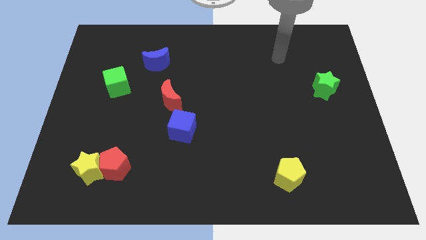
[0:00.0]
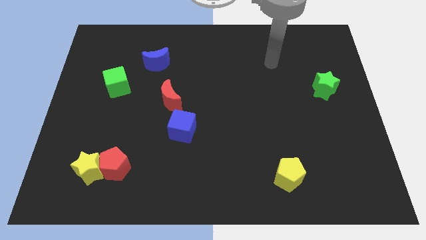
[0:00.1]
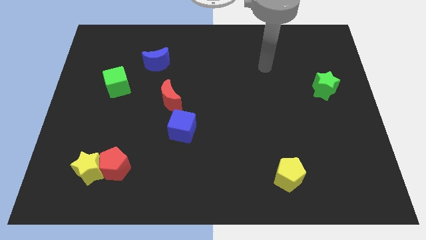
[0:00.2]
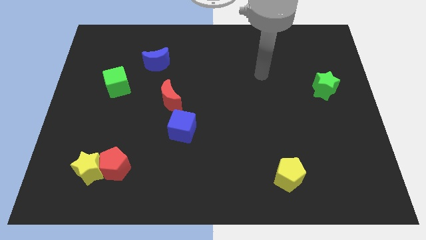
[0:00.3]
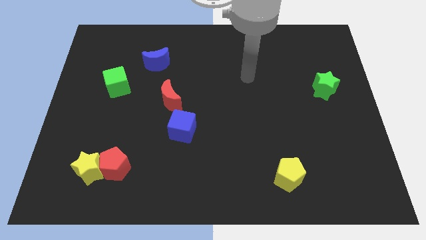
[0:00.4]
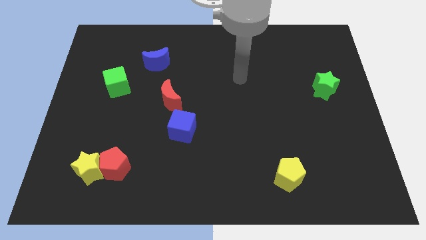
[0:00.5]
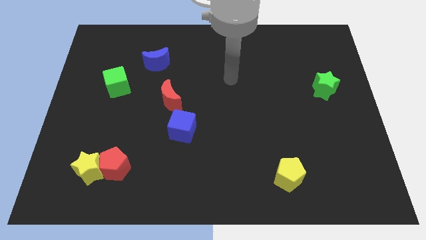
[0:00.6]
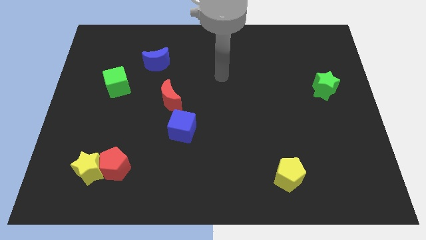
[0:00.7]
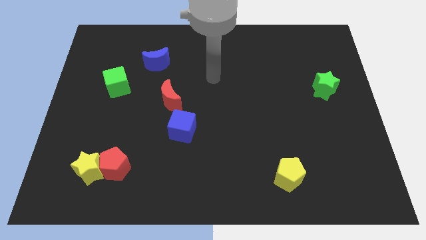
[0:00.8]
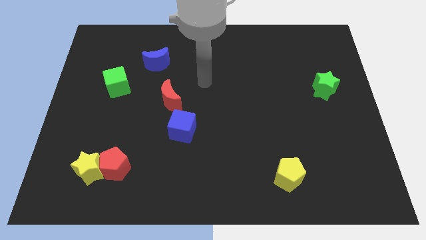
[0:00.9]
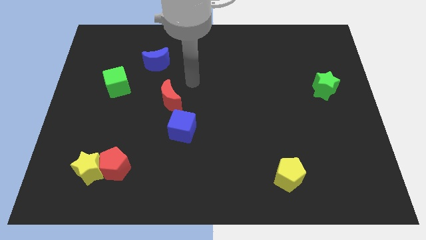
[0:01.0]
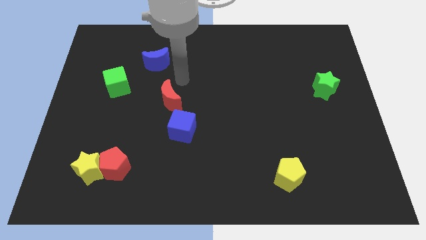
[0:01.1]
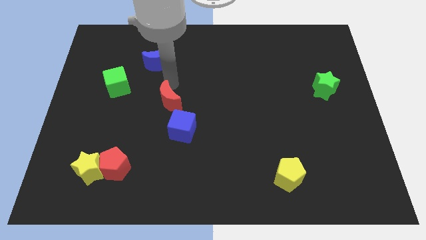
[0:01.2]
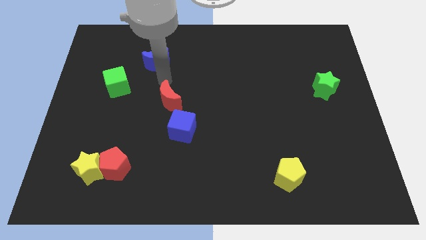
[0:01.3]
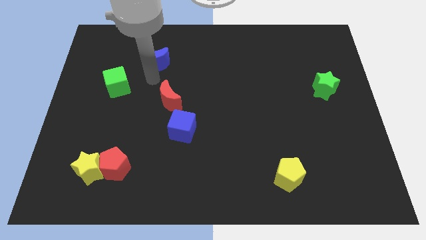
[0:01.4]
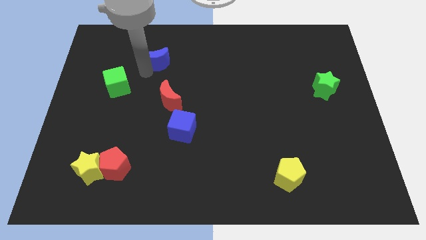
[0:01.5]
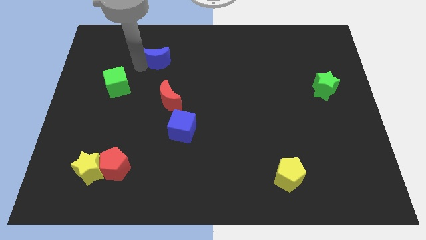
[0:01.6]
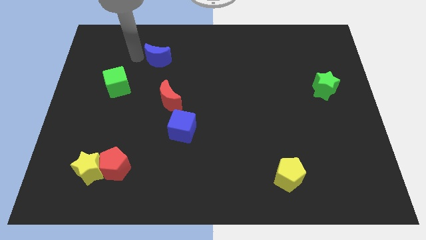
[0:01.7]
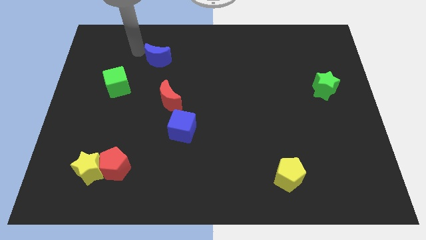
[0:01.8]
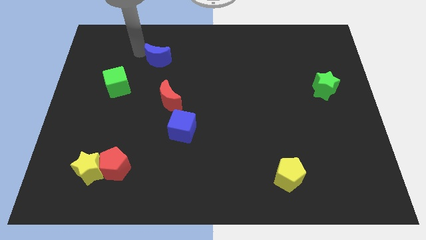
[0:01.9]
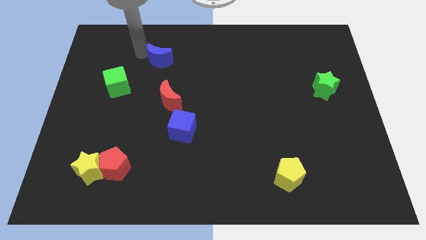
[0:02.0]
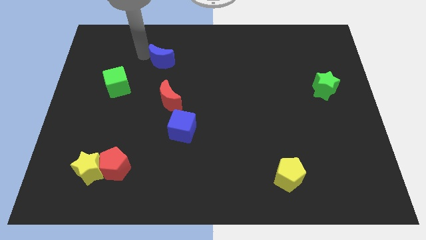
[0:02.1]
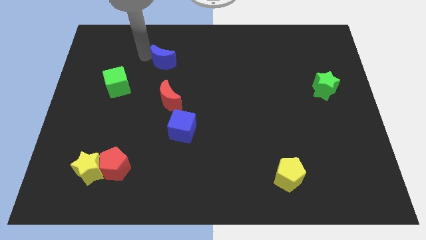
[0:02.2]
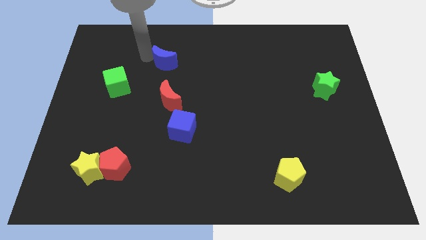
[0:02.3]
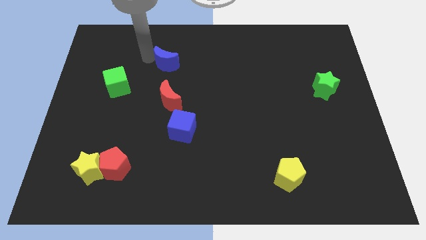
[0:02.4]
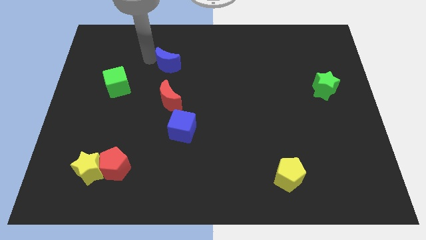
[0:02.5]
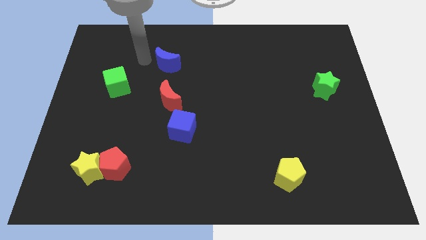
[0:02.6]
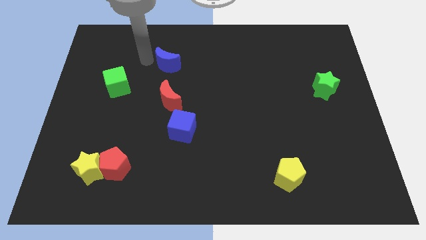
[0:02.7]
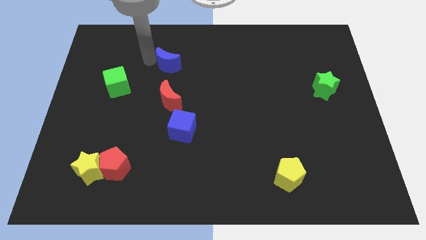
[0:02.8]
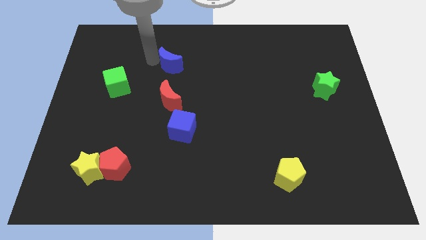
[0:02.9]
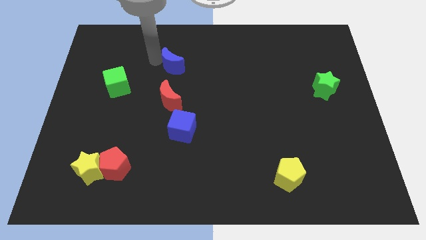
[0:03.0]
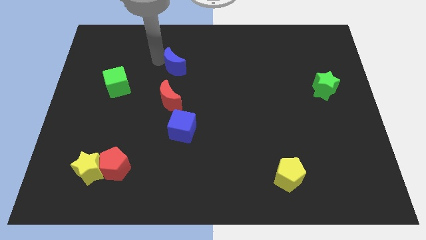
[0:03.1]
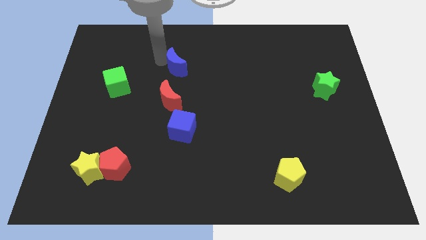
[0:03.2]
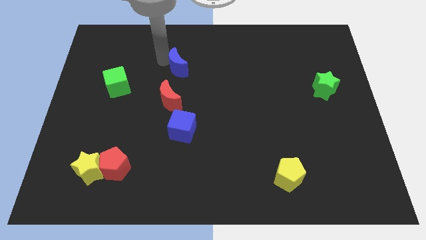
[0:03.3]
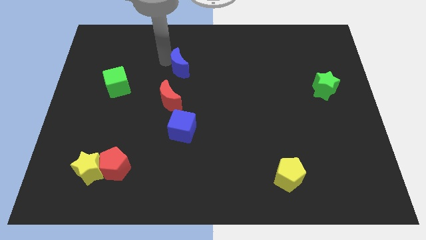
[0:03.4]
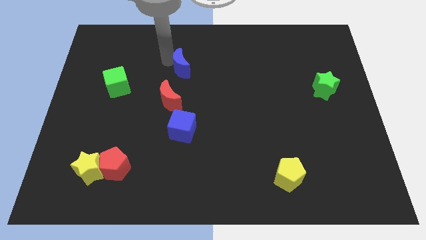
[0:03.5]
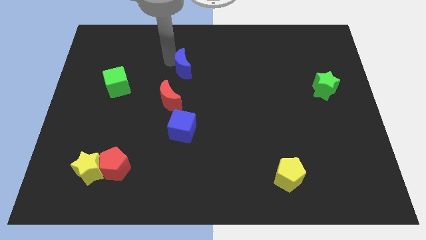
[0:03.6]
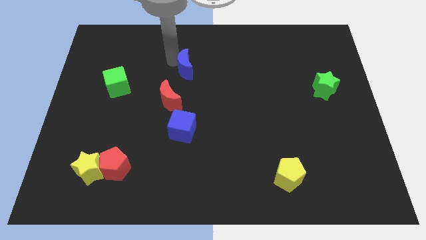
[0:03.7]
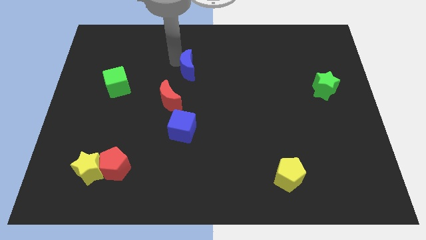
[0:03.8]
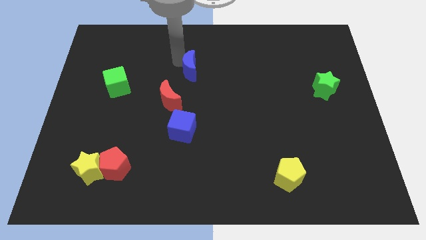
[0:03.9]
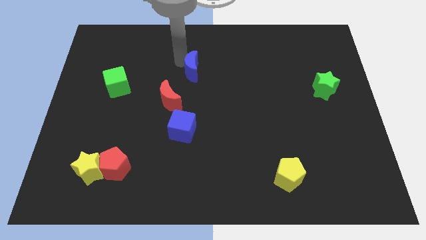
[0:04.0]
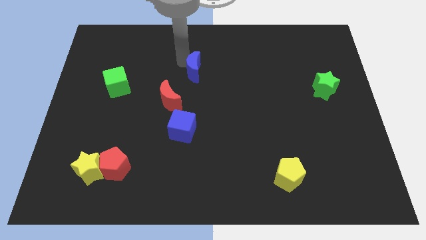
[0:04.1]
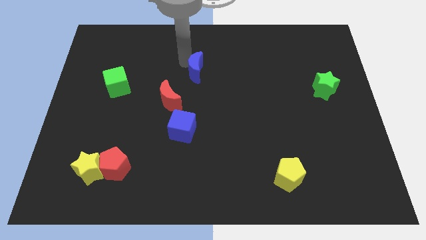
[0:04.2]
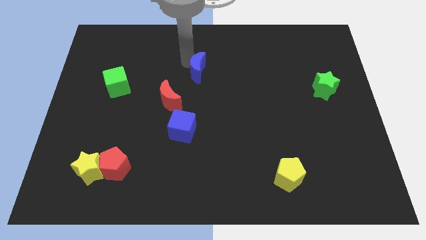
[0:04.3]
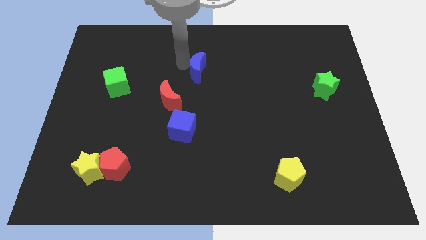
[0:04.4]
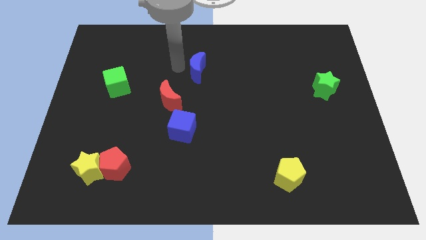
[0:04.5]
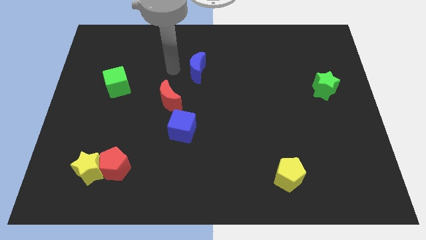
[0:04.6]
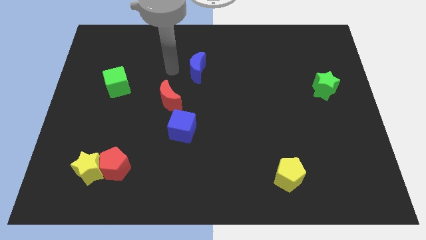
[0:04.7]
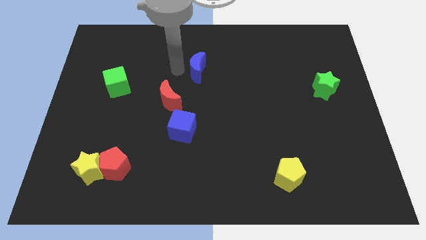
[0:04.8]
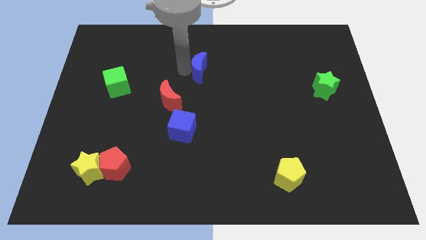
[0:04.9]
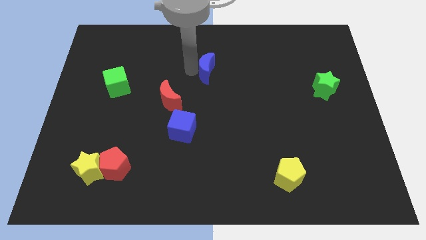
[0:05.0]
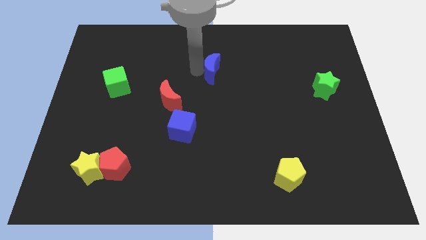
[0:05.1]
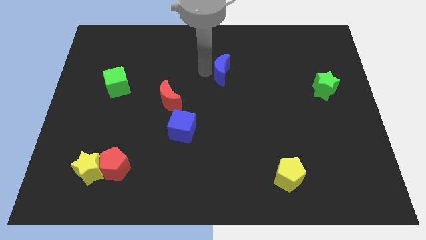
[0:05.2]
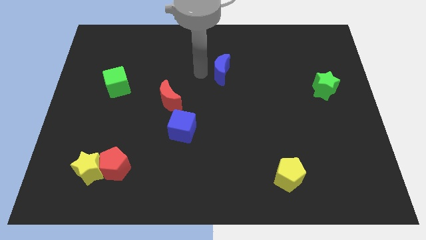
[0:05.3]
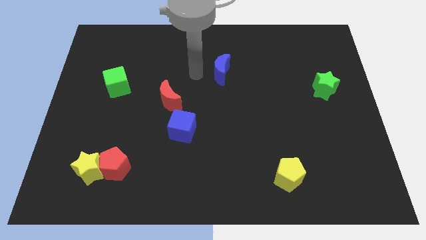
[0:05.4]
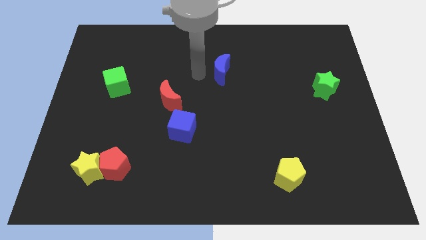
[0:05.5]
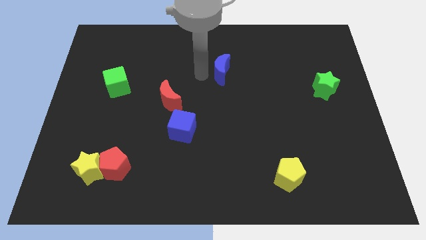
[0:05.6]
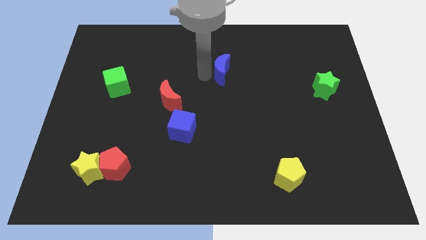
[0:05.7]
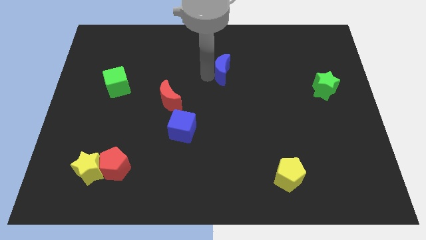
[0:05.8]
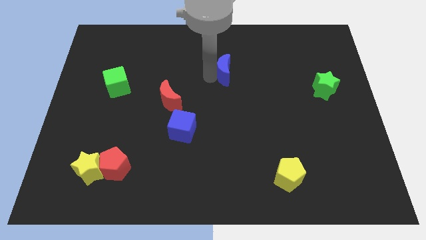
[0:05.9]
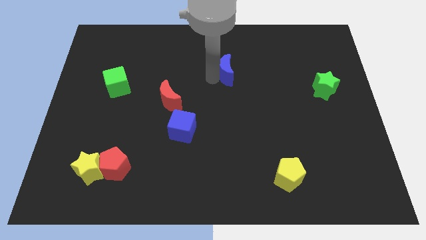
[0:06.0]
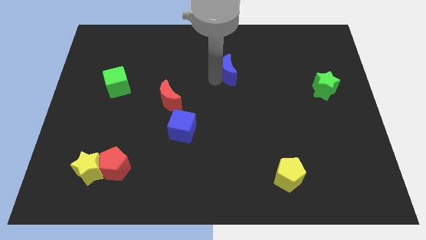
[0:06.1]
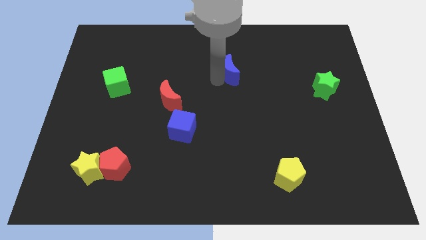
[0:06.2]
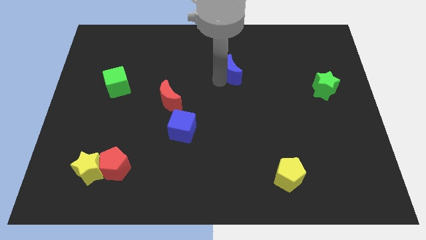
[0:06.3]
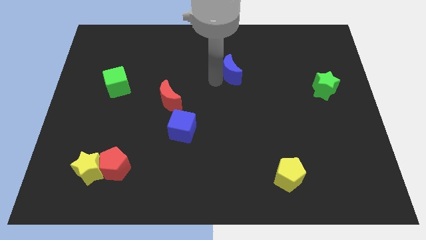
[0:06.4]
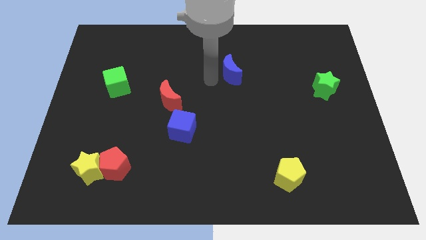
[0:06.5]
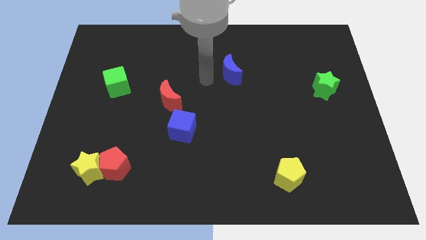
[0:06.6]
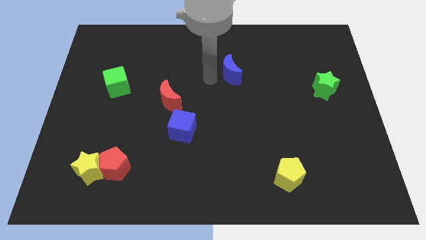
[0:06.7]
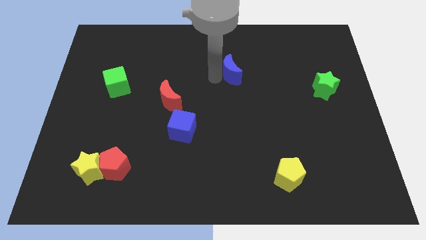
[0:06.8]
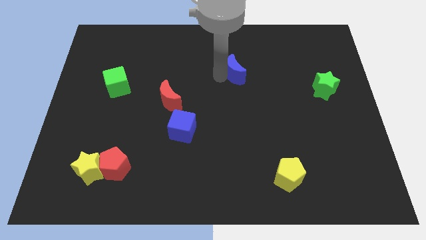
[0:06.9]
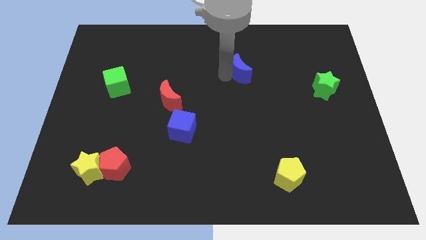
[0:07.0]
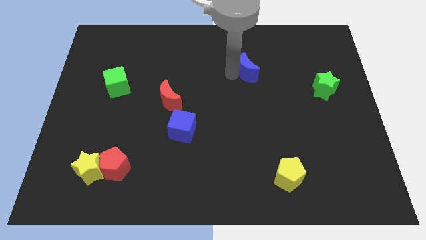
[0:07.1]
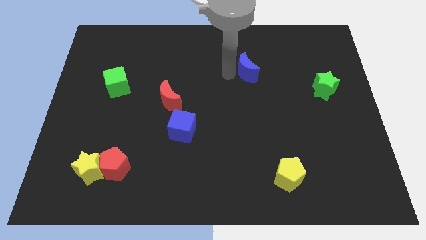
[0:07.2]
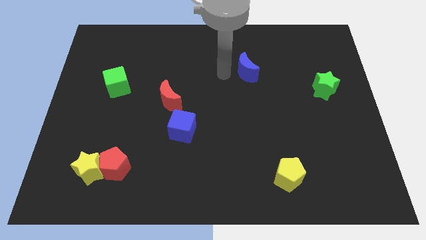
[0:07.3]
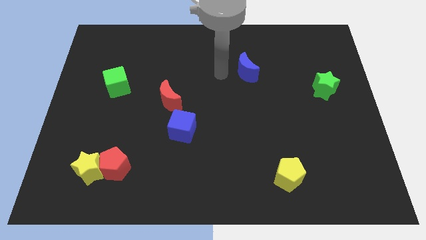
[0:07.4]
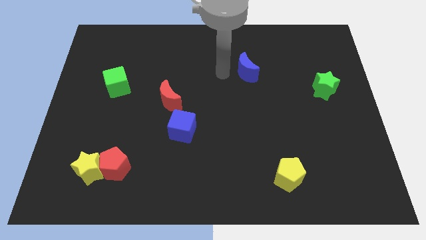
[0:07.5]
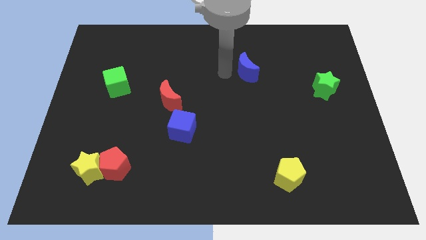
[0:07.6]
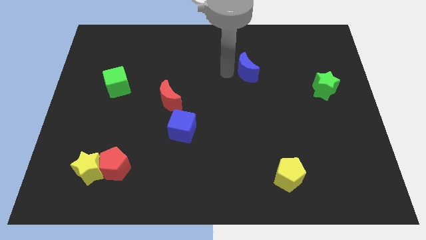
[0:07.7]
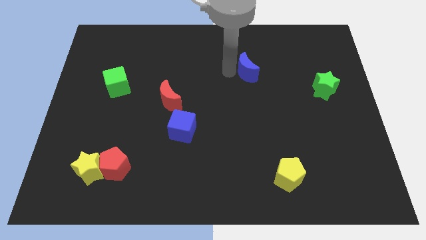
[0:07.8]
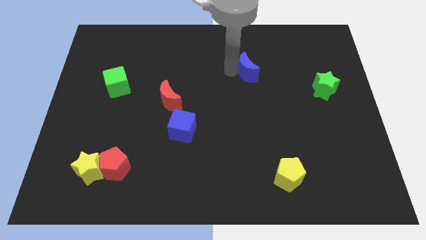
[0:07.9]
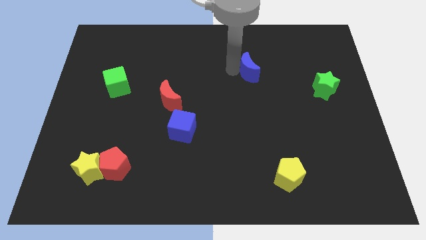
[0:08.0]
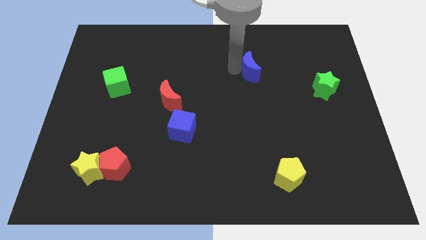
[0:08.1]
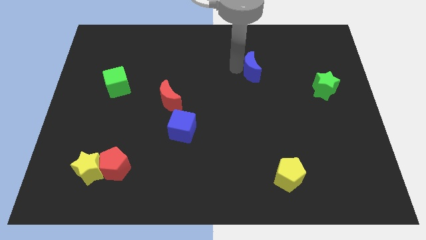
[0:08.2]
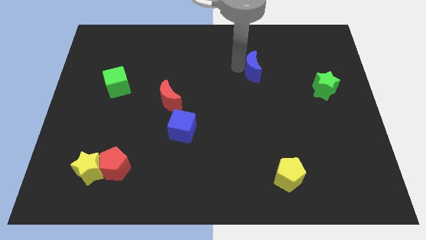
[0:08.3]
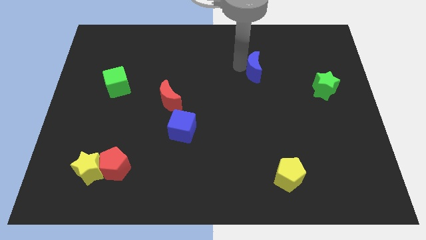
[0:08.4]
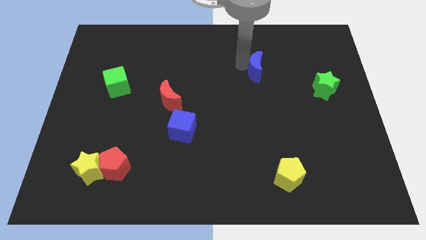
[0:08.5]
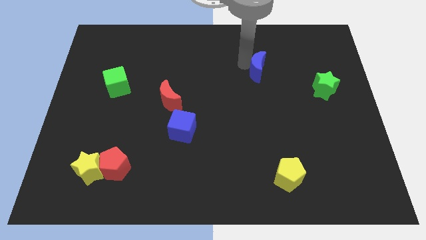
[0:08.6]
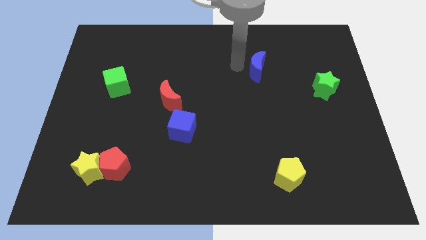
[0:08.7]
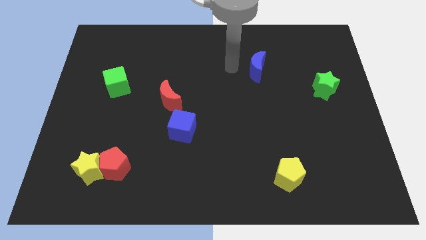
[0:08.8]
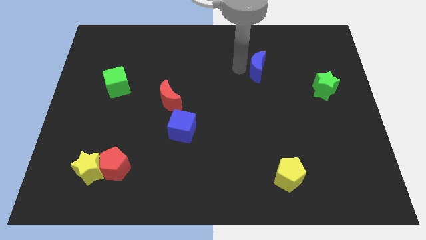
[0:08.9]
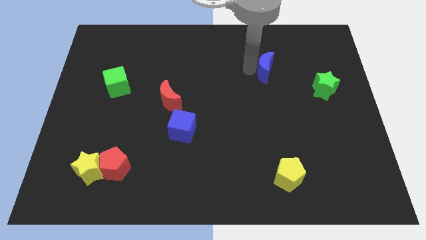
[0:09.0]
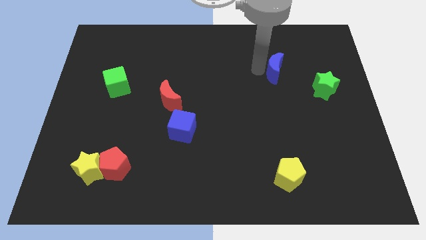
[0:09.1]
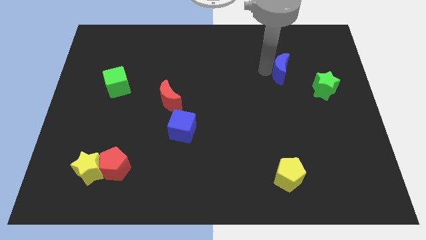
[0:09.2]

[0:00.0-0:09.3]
move the blue moon to the top left of the green star
